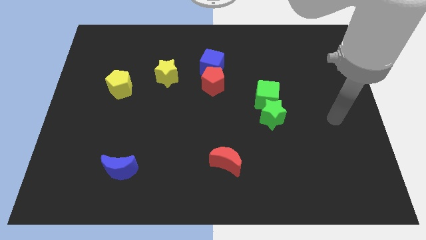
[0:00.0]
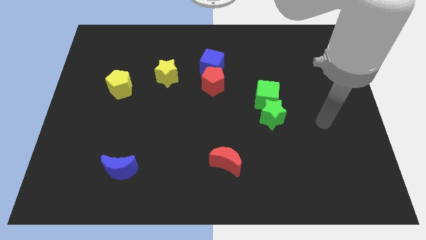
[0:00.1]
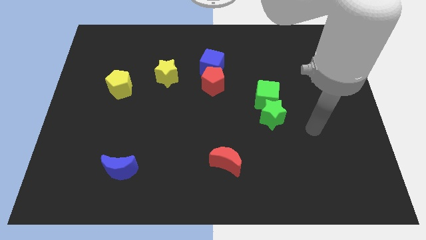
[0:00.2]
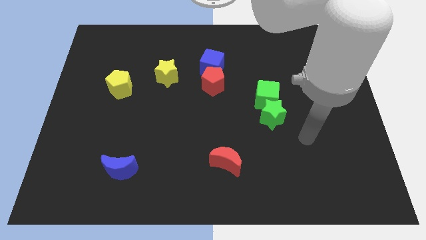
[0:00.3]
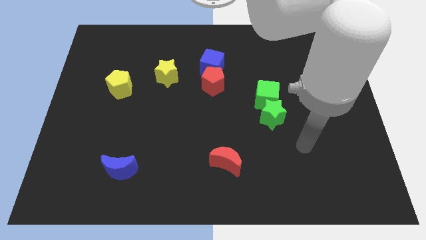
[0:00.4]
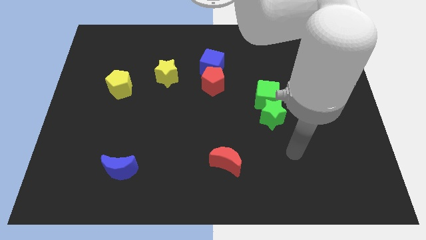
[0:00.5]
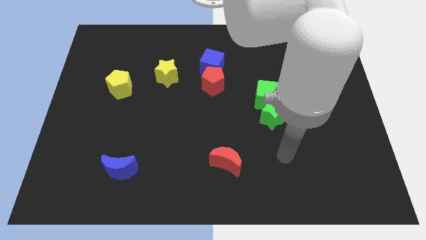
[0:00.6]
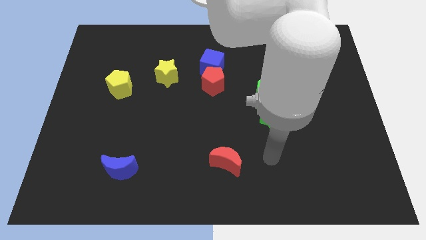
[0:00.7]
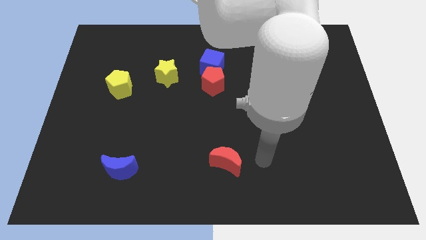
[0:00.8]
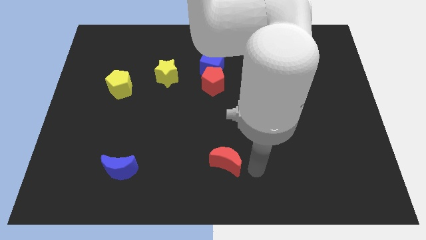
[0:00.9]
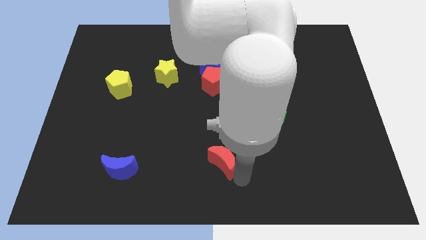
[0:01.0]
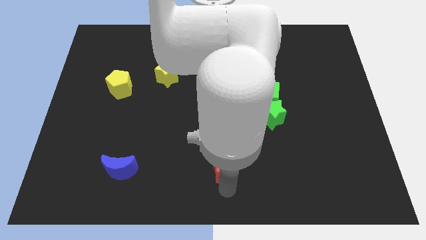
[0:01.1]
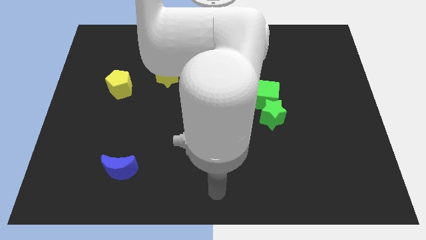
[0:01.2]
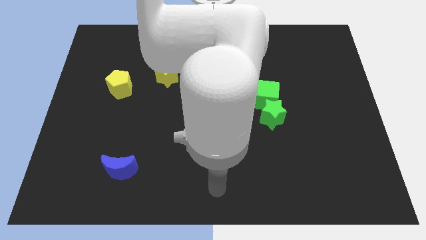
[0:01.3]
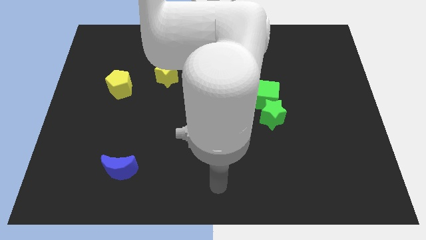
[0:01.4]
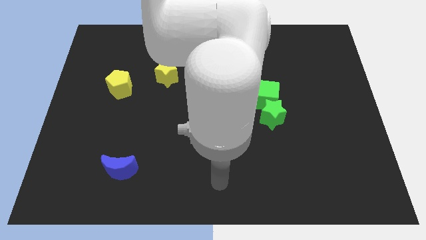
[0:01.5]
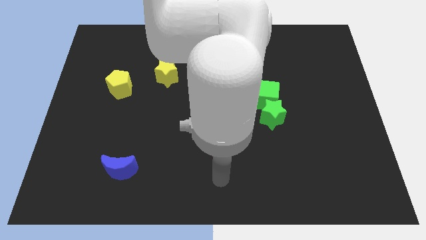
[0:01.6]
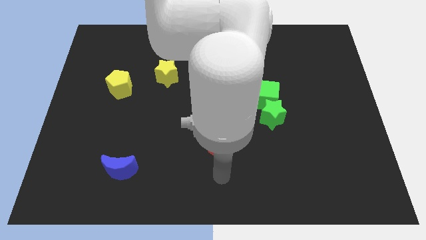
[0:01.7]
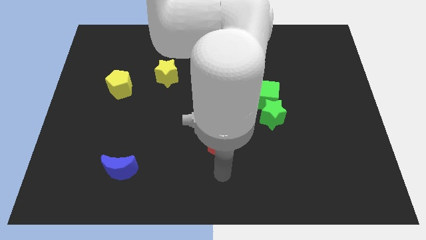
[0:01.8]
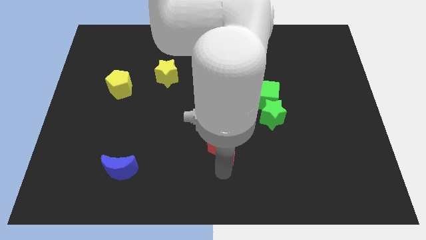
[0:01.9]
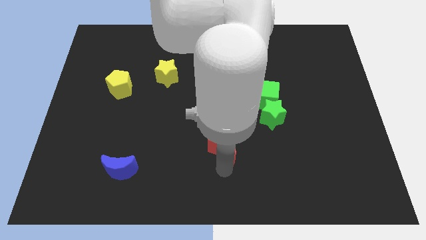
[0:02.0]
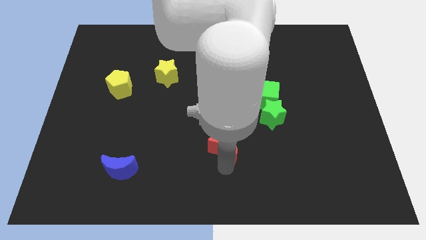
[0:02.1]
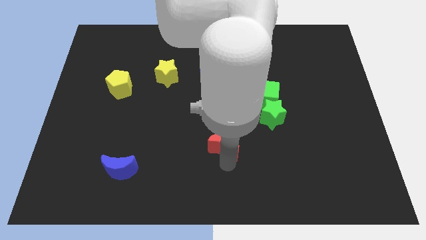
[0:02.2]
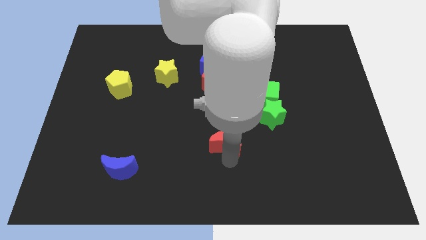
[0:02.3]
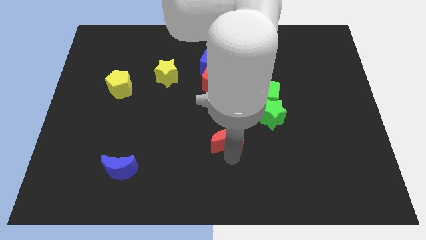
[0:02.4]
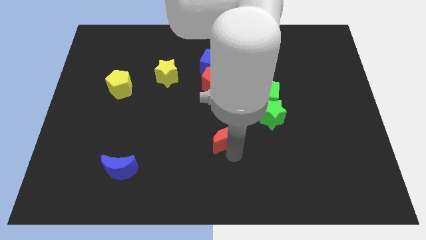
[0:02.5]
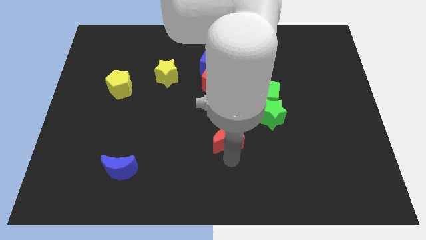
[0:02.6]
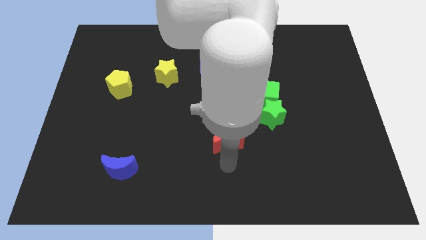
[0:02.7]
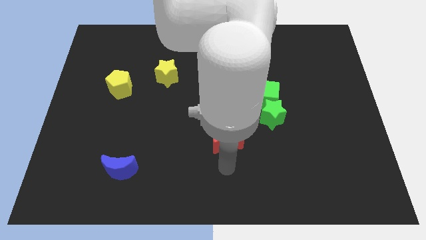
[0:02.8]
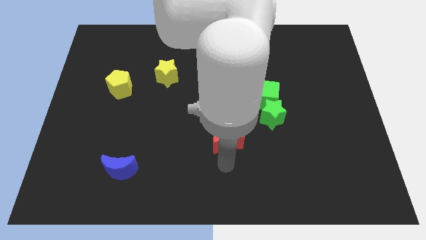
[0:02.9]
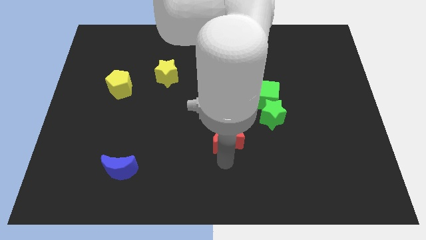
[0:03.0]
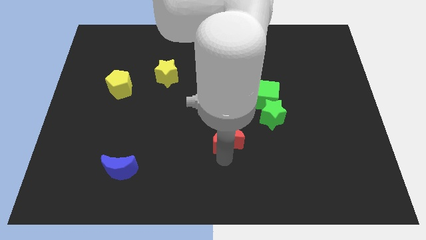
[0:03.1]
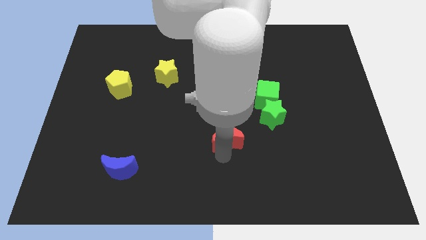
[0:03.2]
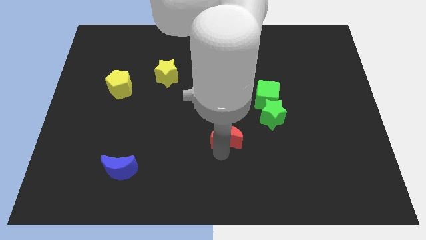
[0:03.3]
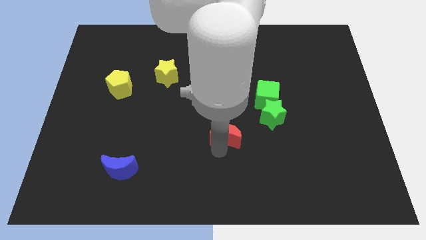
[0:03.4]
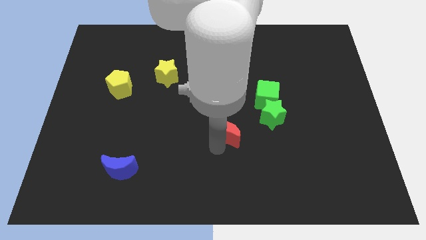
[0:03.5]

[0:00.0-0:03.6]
slightly push the red moon upwards

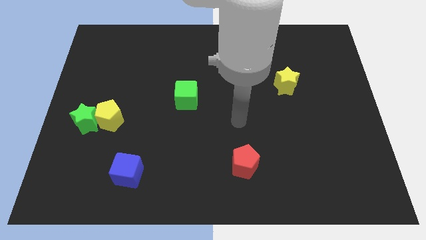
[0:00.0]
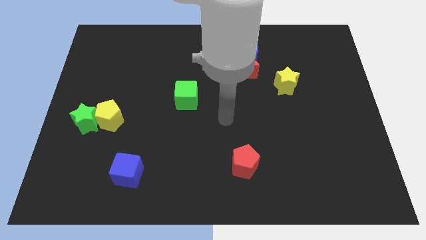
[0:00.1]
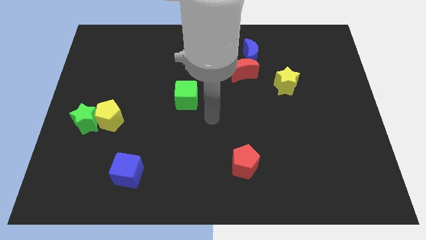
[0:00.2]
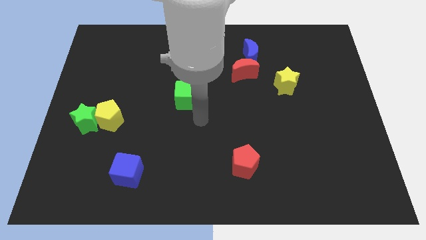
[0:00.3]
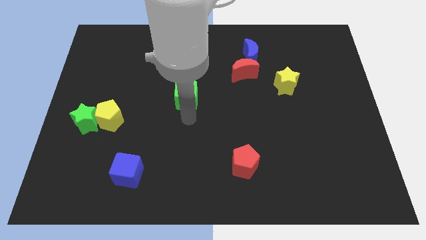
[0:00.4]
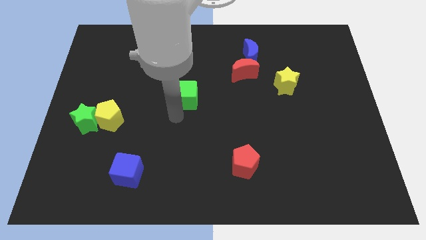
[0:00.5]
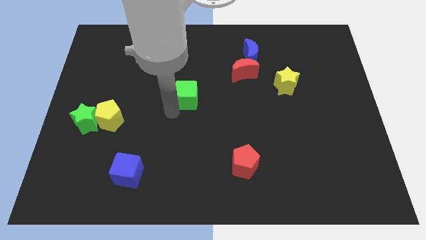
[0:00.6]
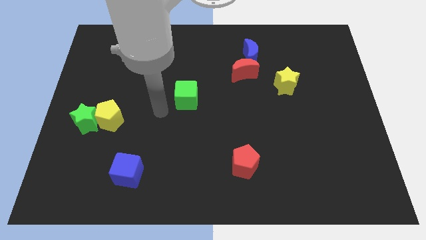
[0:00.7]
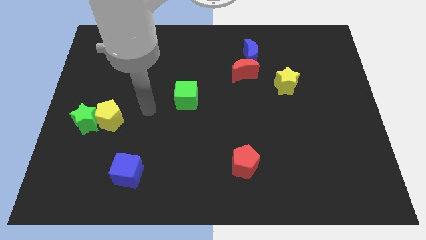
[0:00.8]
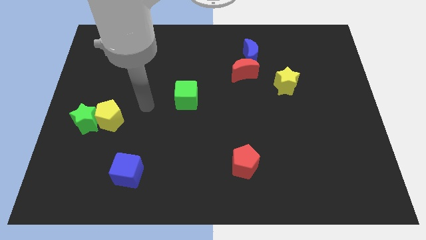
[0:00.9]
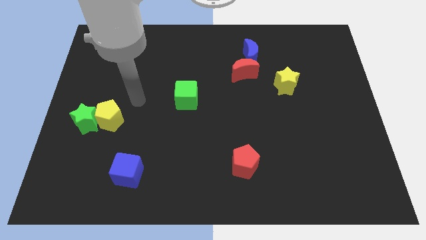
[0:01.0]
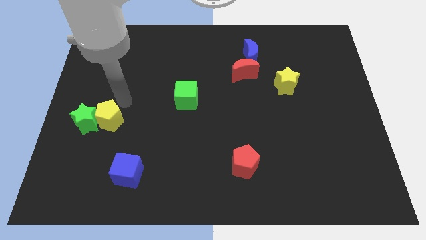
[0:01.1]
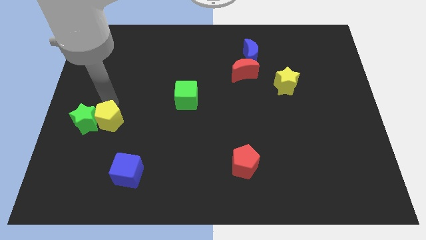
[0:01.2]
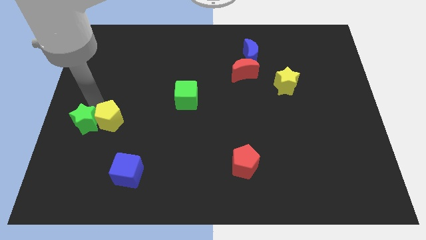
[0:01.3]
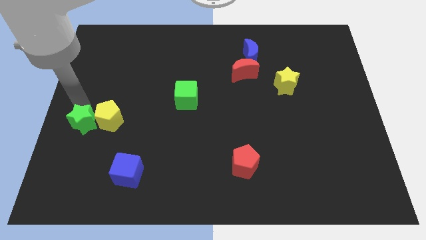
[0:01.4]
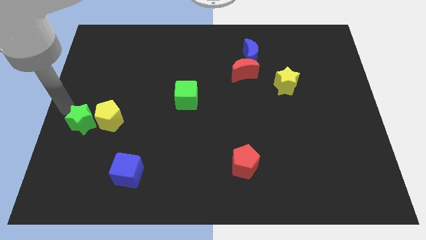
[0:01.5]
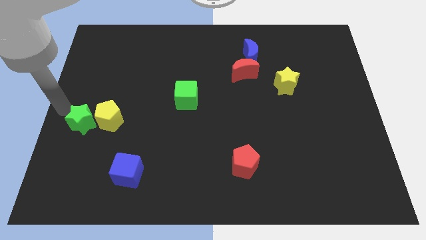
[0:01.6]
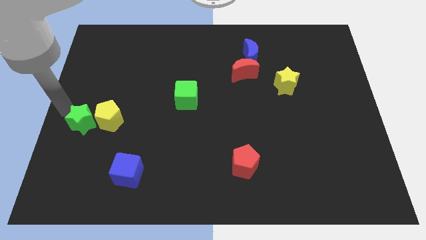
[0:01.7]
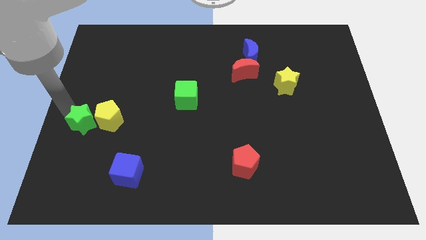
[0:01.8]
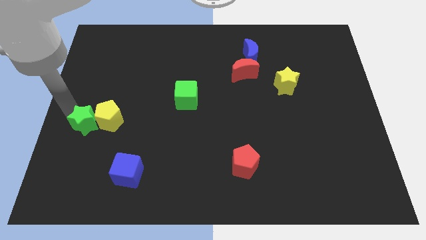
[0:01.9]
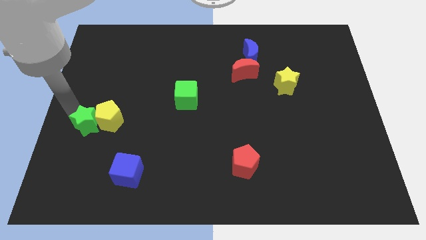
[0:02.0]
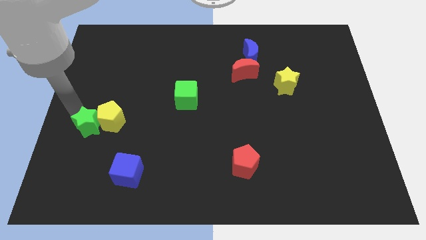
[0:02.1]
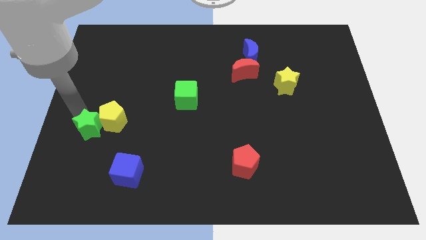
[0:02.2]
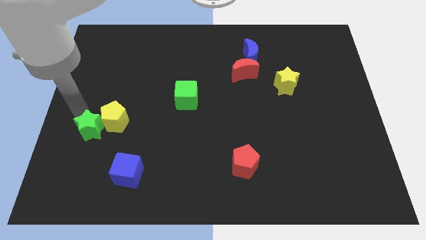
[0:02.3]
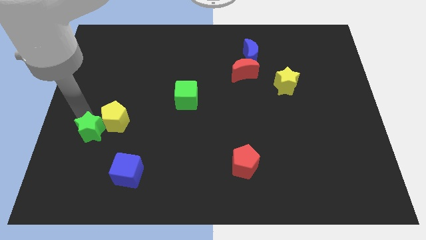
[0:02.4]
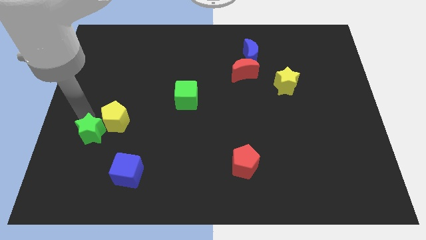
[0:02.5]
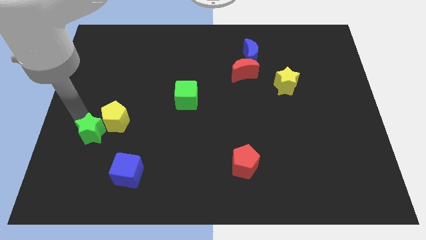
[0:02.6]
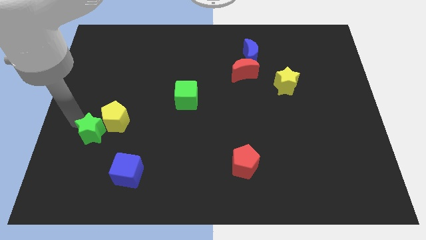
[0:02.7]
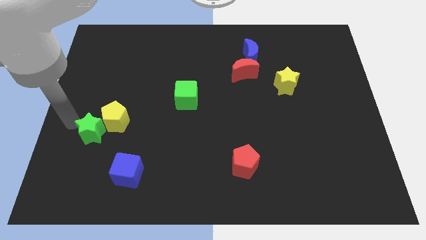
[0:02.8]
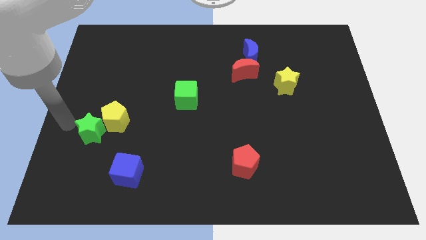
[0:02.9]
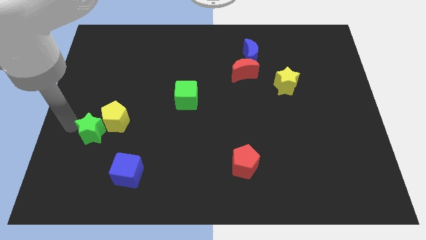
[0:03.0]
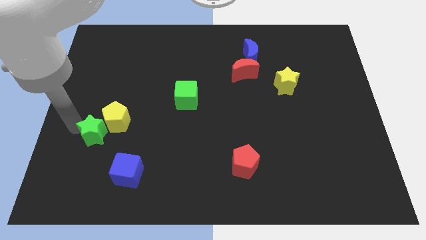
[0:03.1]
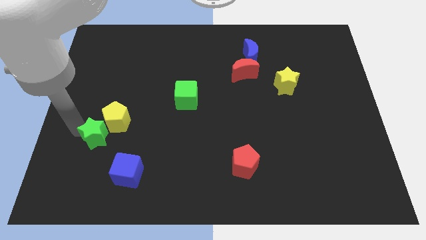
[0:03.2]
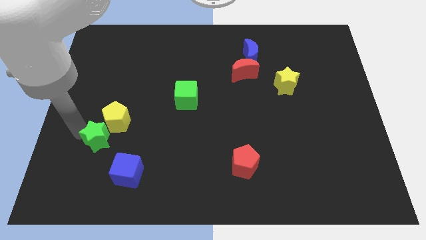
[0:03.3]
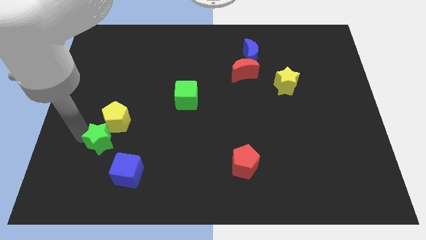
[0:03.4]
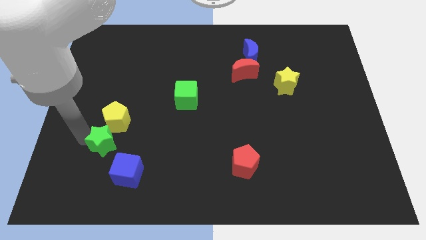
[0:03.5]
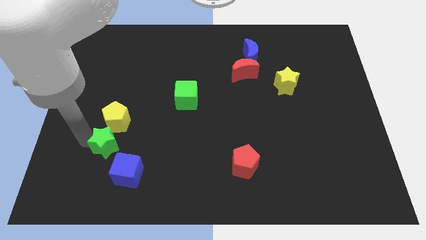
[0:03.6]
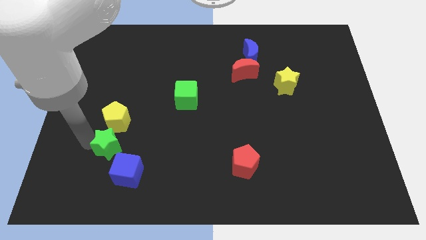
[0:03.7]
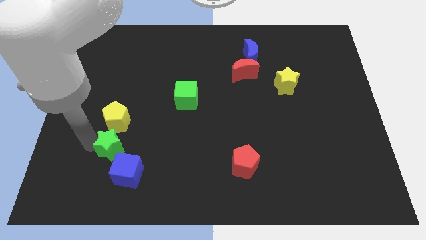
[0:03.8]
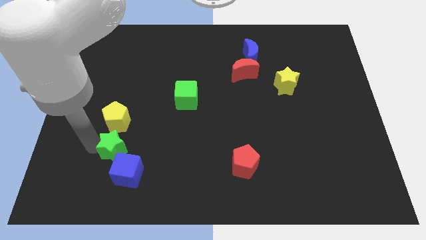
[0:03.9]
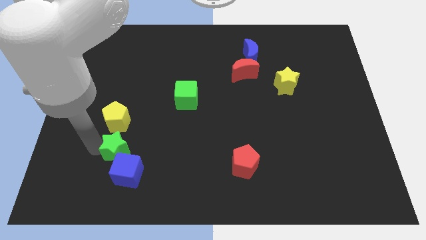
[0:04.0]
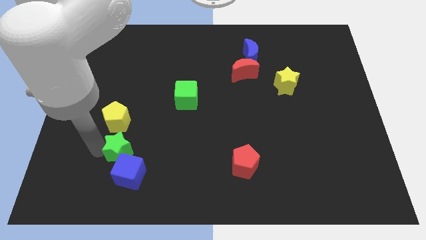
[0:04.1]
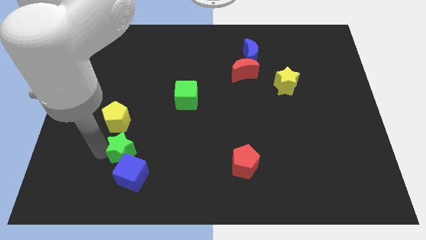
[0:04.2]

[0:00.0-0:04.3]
slide the green star a bit to the right
